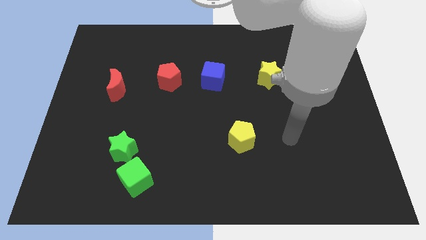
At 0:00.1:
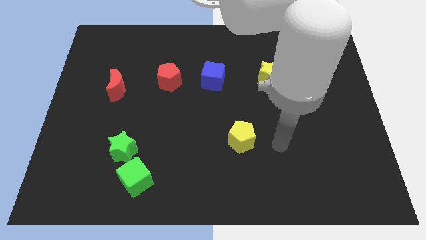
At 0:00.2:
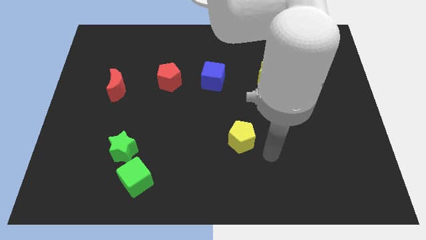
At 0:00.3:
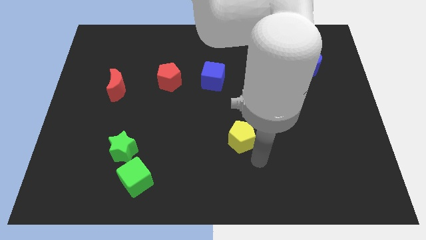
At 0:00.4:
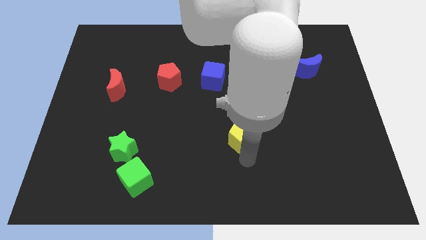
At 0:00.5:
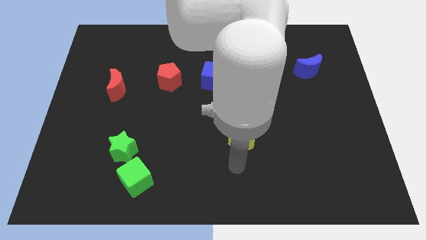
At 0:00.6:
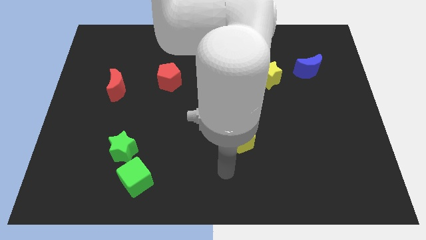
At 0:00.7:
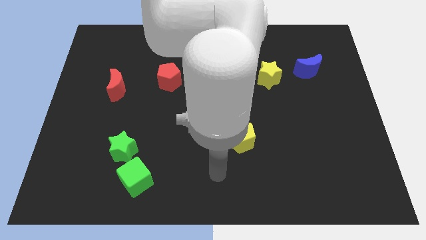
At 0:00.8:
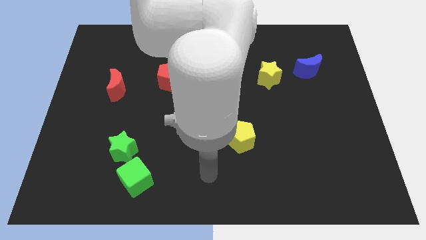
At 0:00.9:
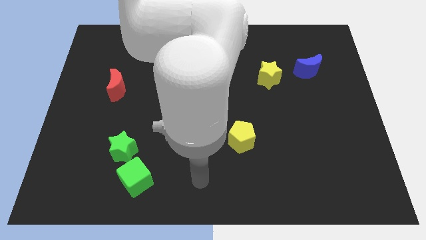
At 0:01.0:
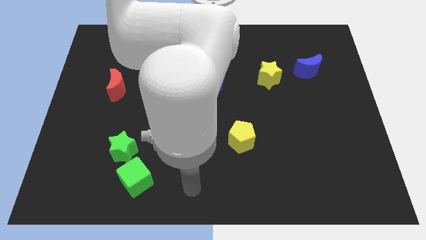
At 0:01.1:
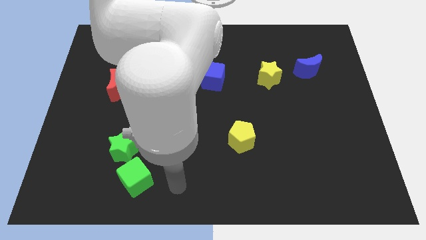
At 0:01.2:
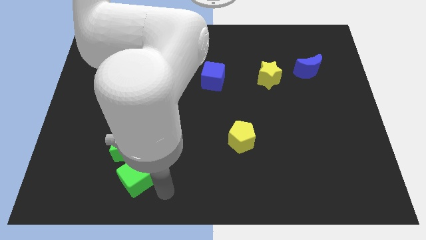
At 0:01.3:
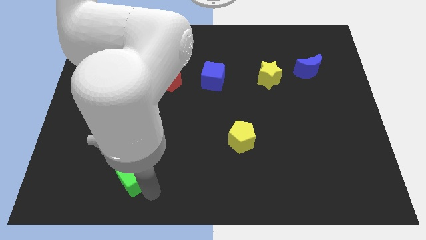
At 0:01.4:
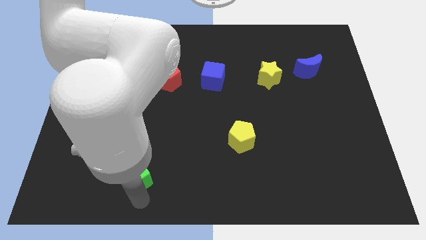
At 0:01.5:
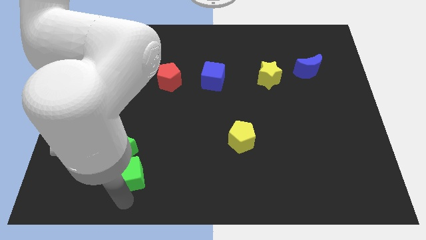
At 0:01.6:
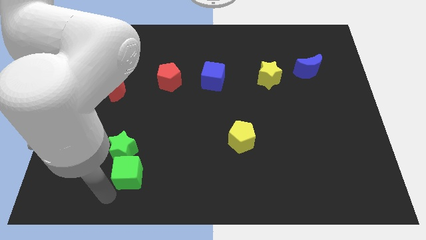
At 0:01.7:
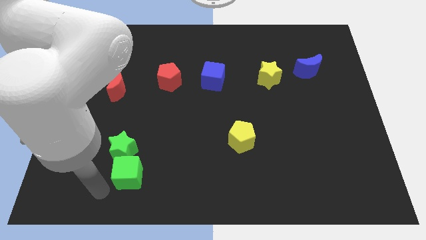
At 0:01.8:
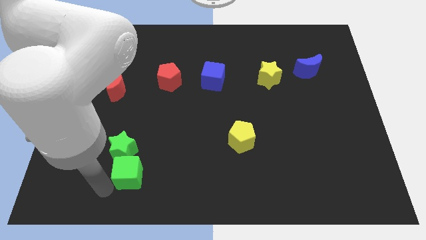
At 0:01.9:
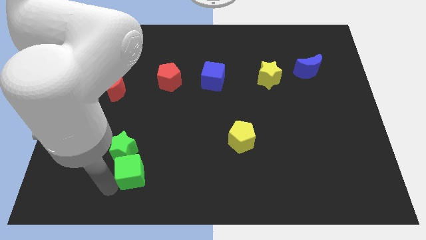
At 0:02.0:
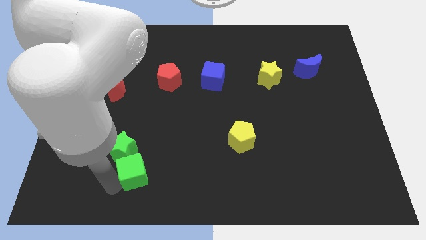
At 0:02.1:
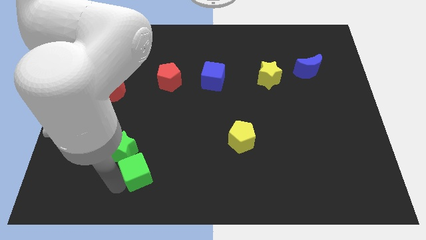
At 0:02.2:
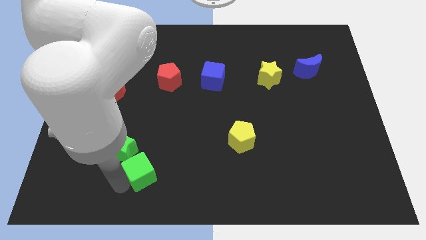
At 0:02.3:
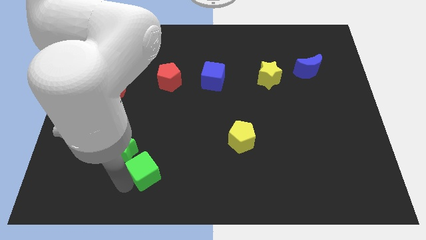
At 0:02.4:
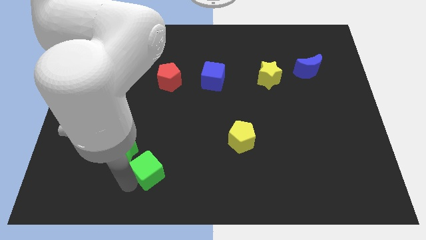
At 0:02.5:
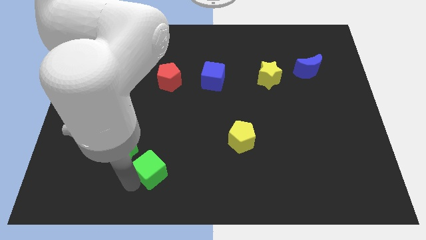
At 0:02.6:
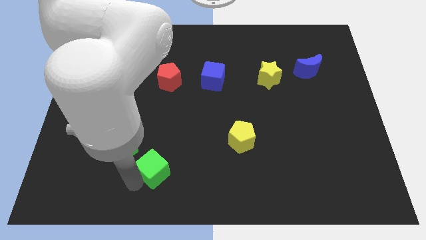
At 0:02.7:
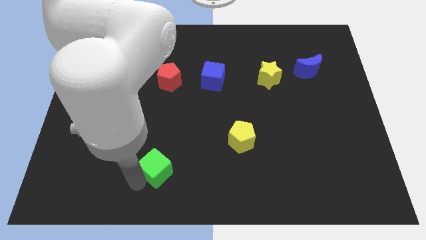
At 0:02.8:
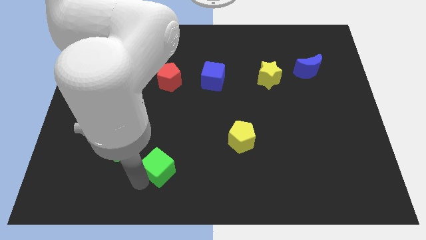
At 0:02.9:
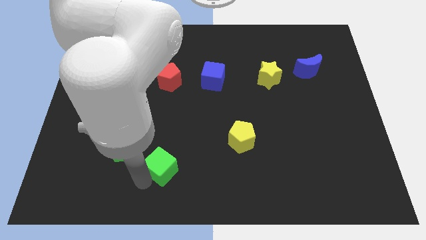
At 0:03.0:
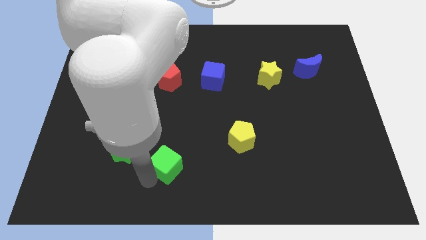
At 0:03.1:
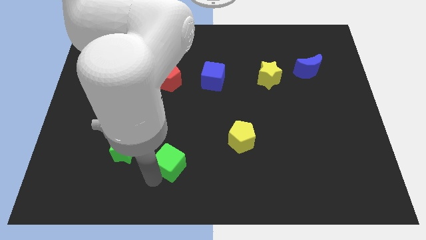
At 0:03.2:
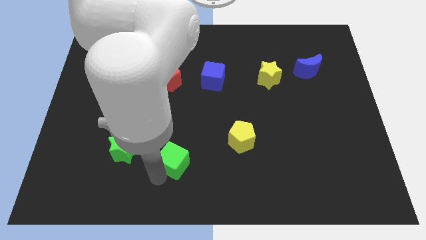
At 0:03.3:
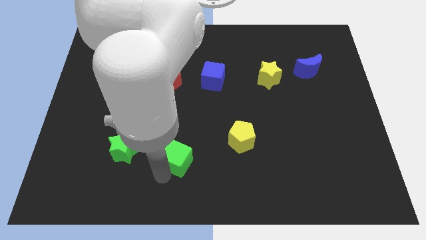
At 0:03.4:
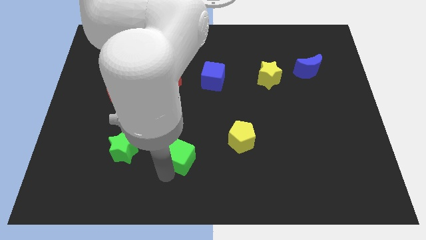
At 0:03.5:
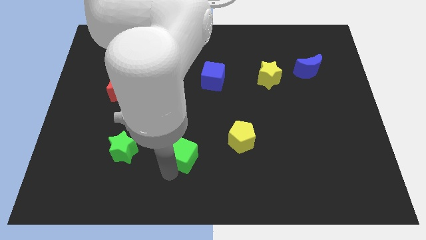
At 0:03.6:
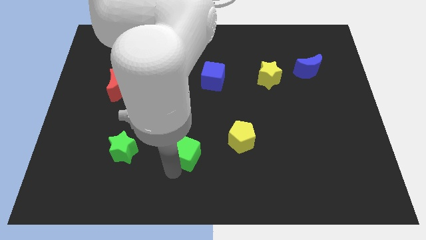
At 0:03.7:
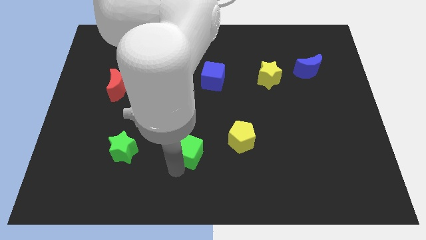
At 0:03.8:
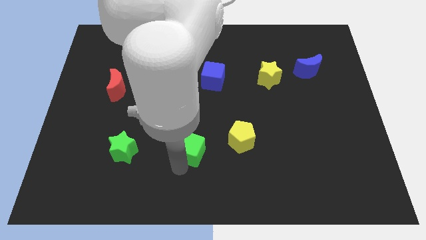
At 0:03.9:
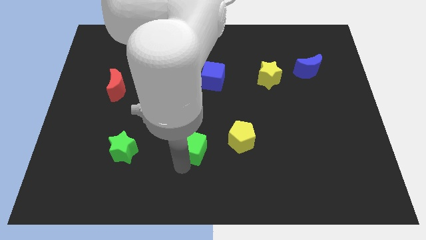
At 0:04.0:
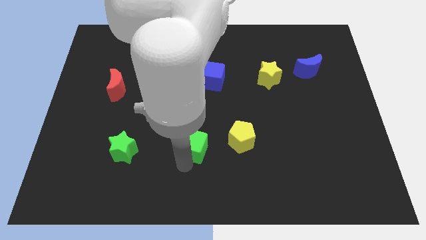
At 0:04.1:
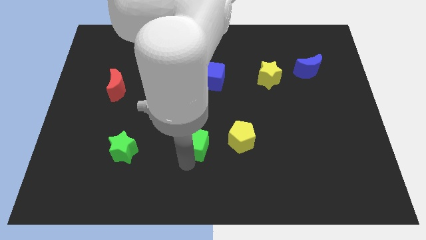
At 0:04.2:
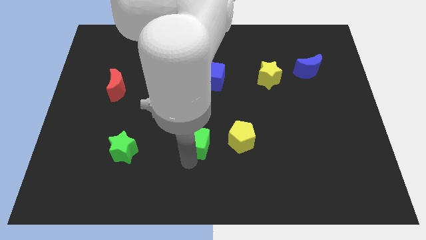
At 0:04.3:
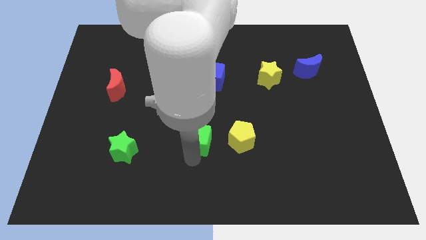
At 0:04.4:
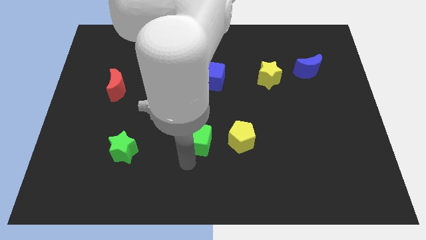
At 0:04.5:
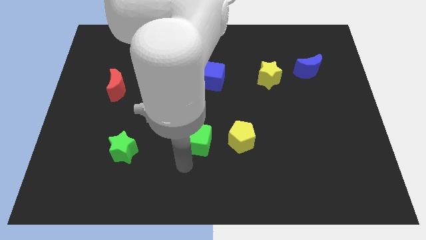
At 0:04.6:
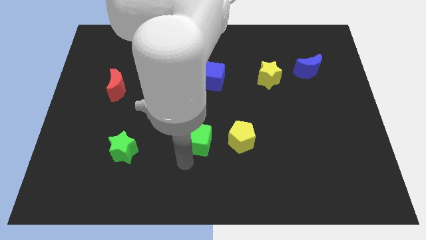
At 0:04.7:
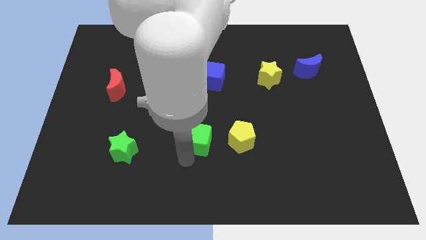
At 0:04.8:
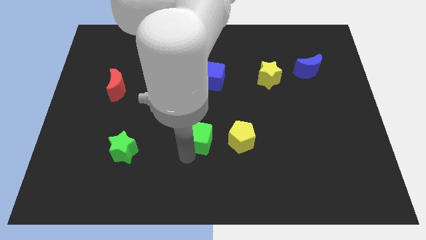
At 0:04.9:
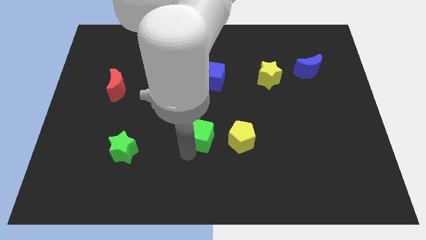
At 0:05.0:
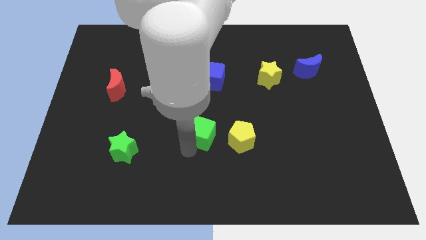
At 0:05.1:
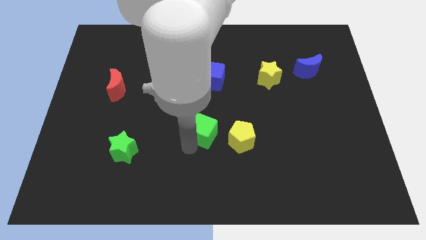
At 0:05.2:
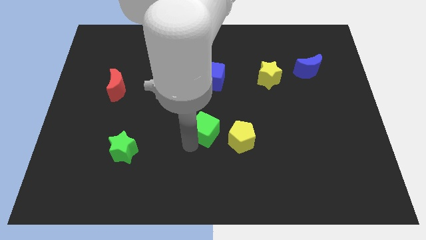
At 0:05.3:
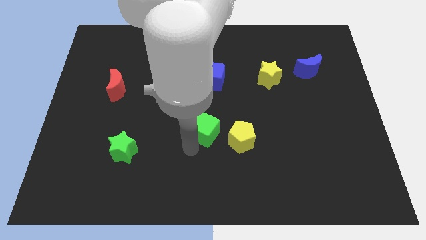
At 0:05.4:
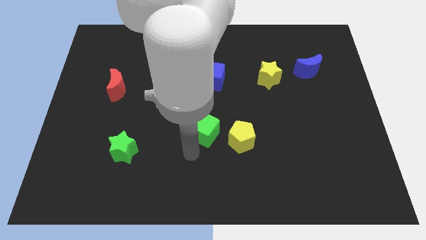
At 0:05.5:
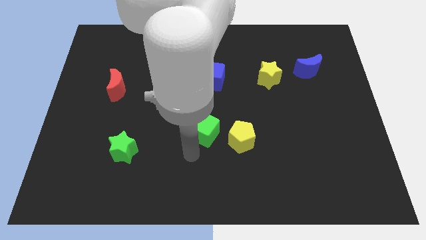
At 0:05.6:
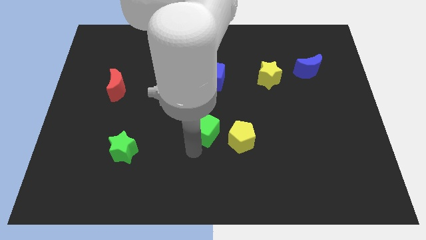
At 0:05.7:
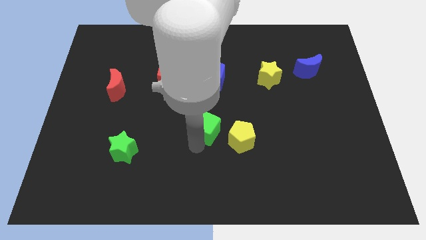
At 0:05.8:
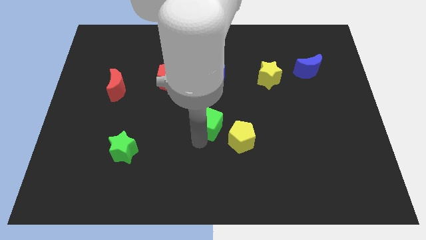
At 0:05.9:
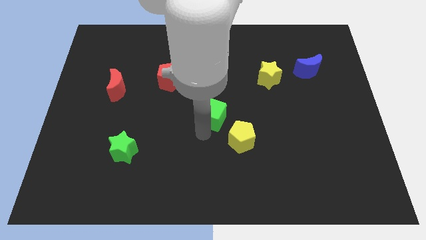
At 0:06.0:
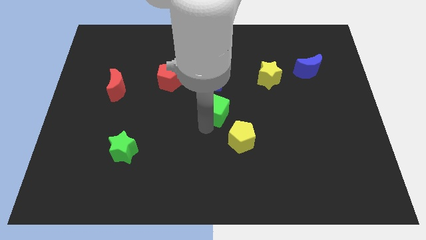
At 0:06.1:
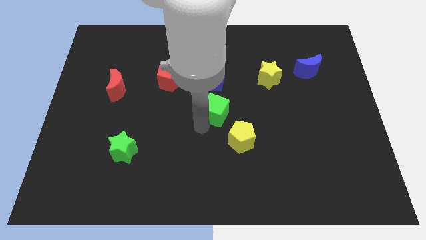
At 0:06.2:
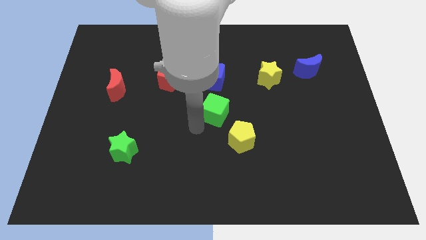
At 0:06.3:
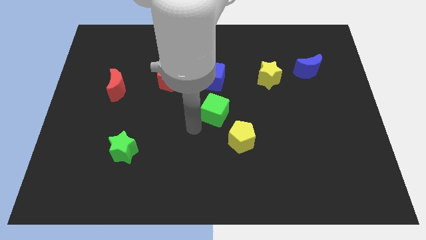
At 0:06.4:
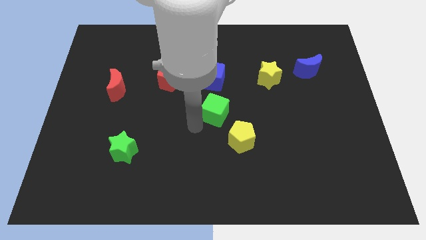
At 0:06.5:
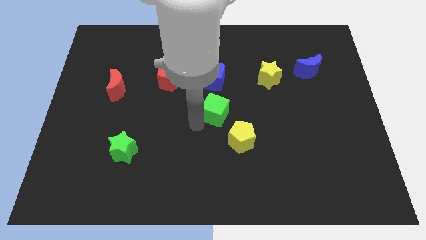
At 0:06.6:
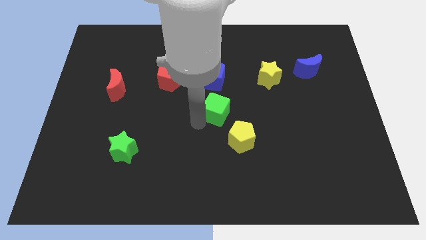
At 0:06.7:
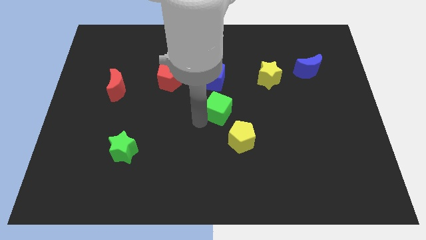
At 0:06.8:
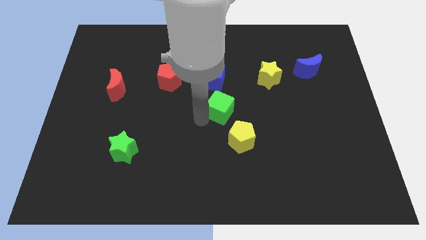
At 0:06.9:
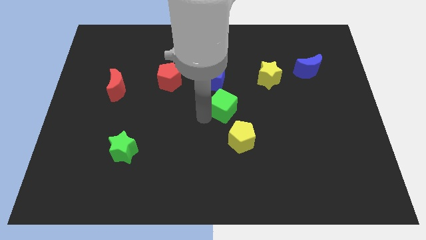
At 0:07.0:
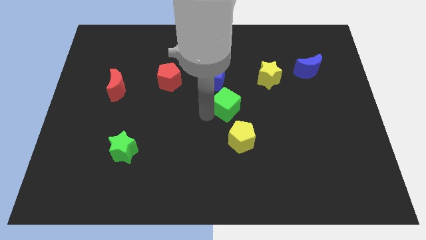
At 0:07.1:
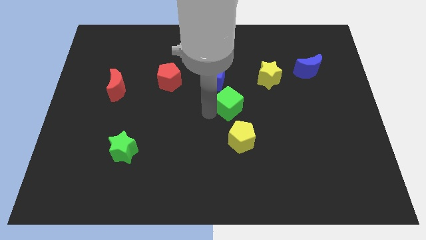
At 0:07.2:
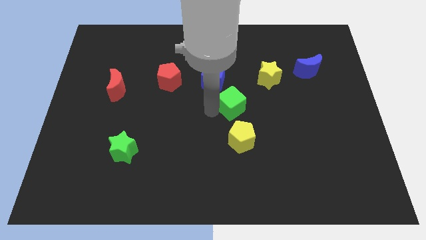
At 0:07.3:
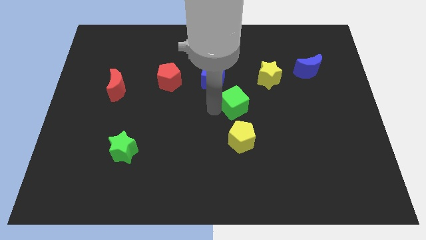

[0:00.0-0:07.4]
put the green cube diagonally down and to the left of the yellow star
